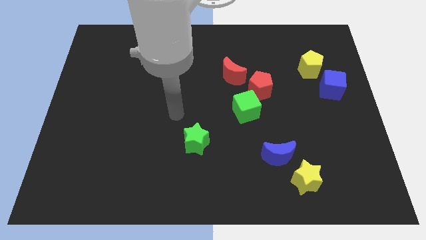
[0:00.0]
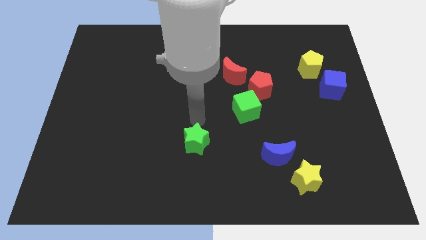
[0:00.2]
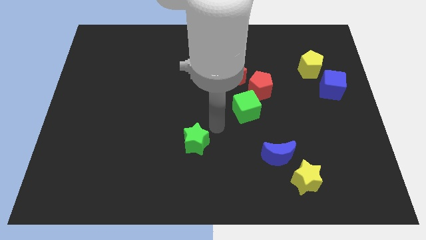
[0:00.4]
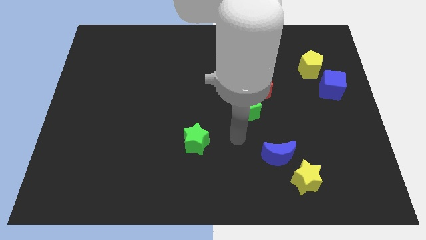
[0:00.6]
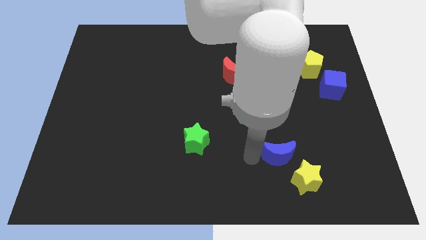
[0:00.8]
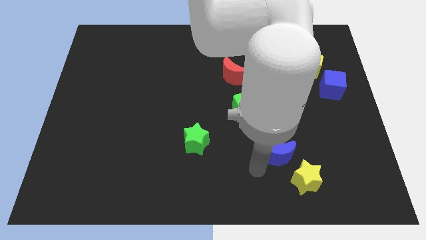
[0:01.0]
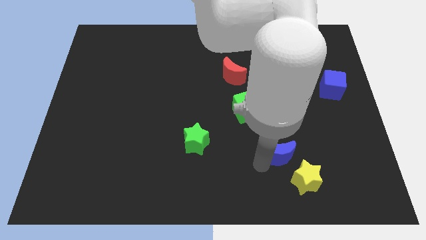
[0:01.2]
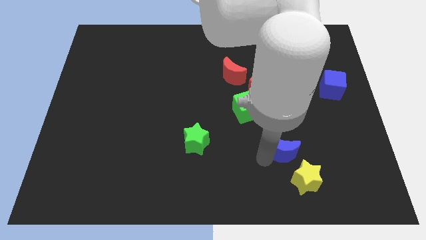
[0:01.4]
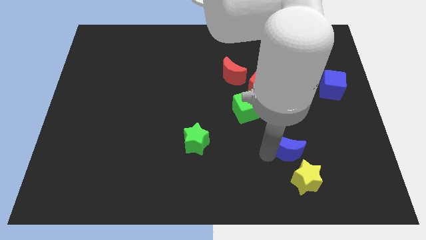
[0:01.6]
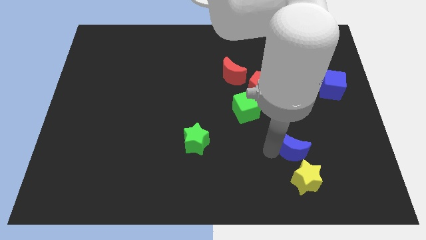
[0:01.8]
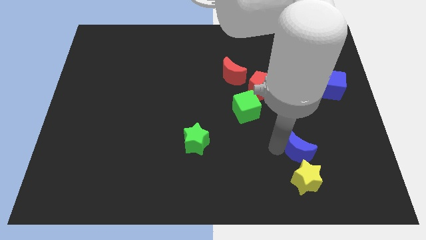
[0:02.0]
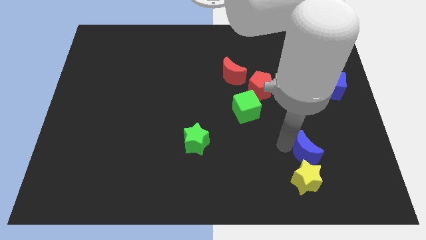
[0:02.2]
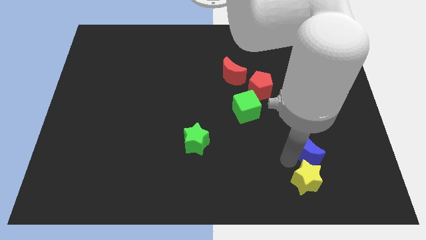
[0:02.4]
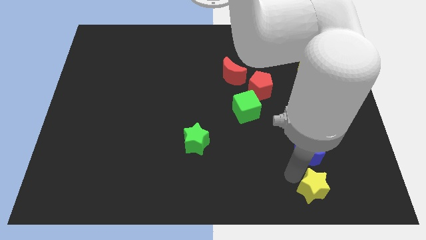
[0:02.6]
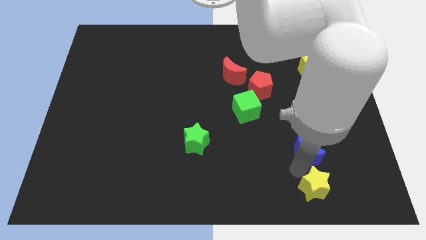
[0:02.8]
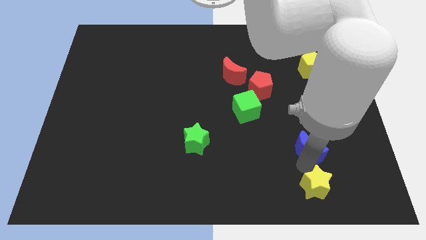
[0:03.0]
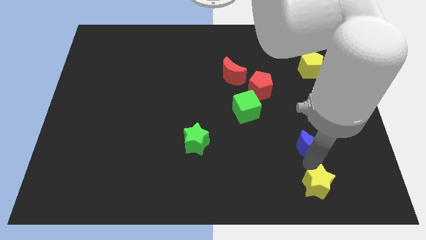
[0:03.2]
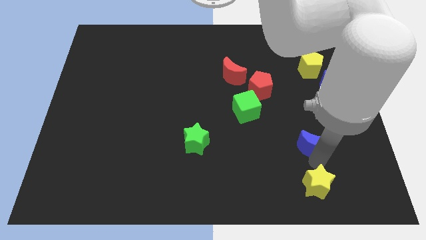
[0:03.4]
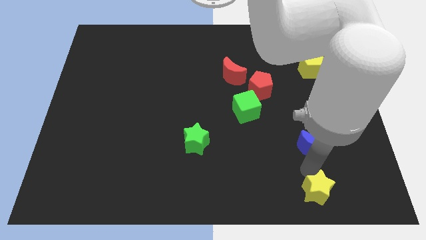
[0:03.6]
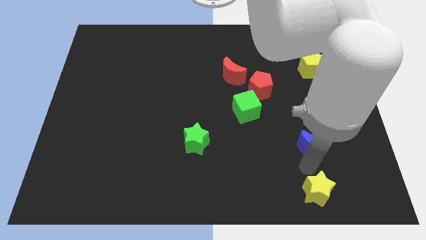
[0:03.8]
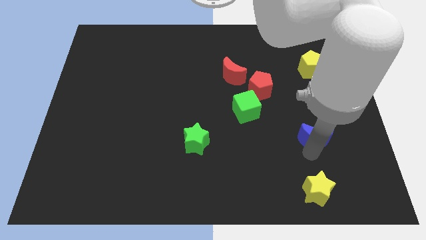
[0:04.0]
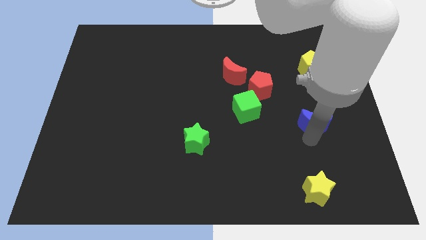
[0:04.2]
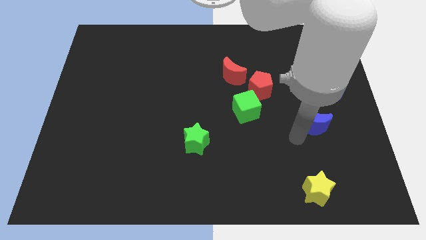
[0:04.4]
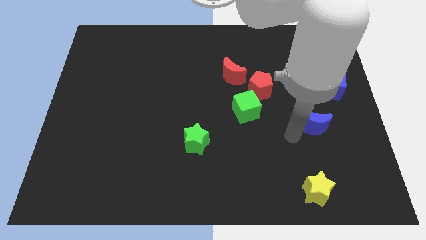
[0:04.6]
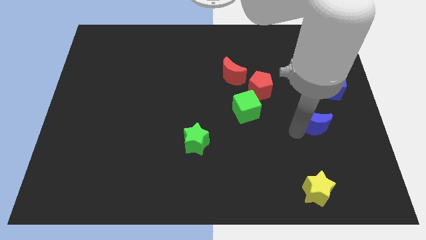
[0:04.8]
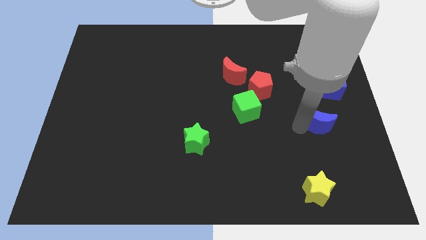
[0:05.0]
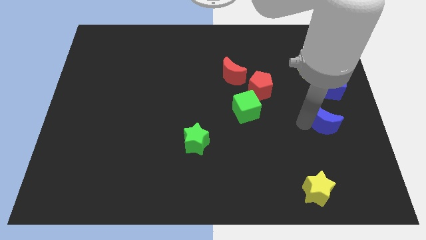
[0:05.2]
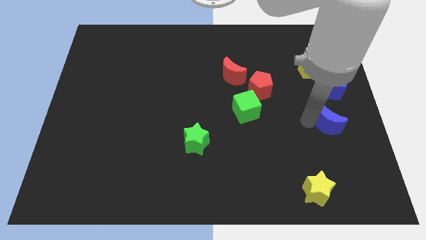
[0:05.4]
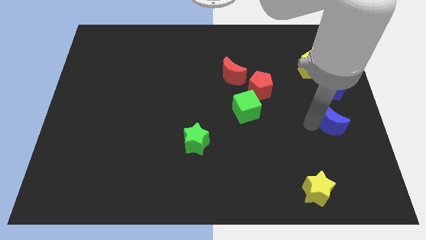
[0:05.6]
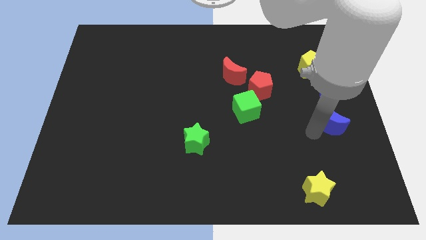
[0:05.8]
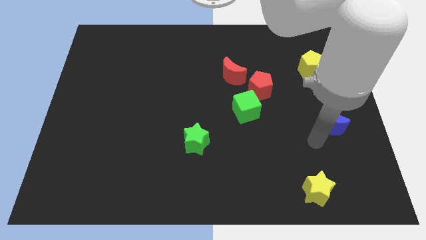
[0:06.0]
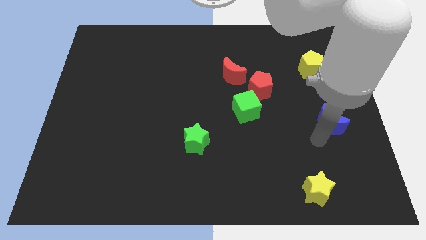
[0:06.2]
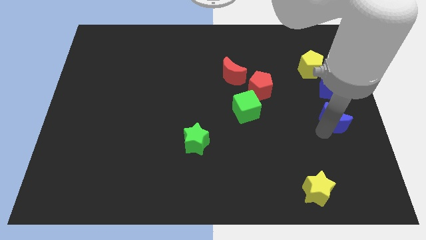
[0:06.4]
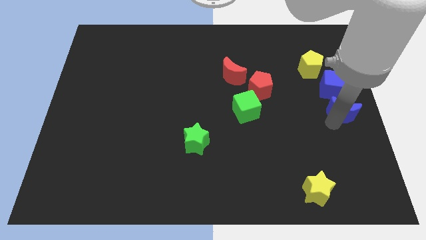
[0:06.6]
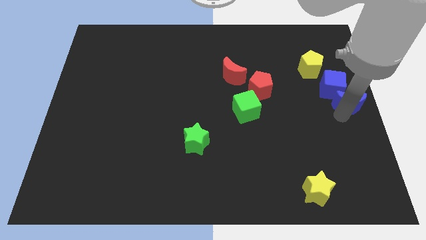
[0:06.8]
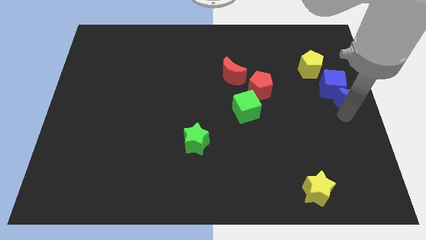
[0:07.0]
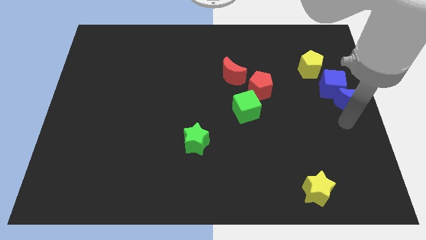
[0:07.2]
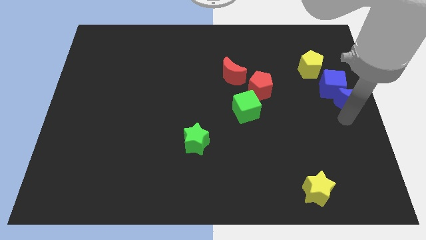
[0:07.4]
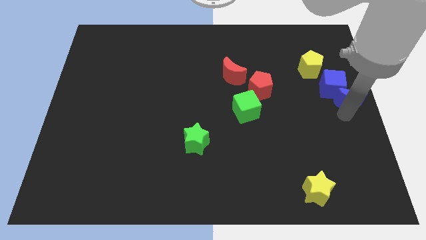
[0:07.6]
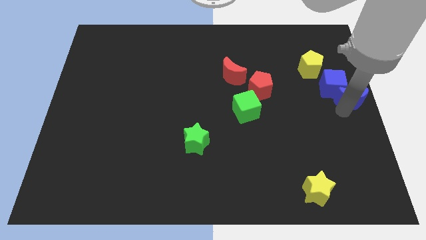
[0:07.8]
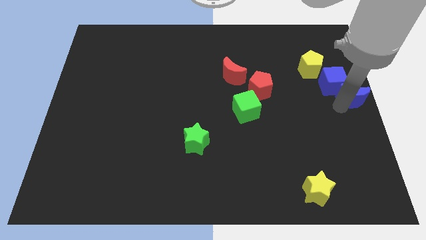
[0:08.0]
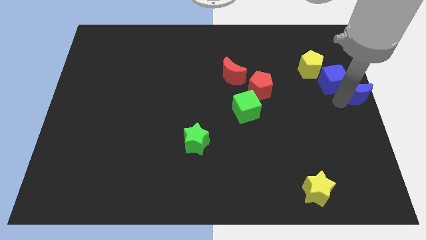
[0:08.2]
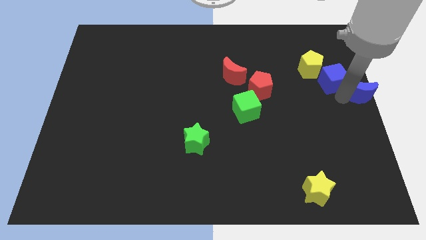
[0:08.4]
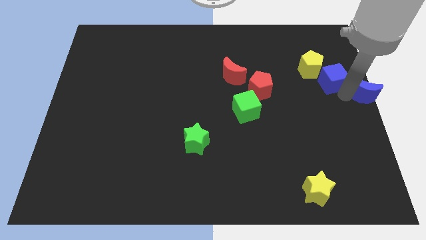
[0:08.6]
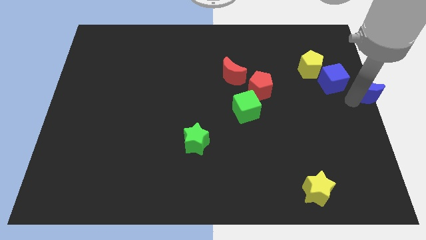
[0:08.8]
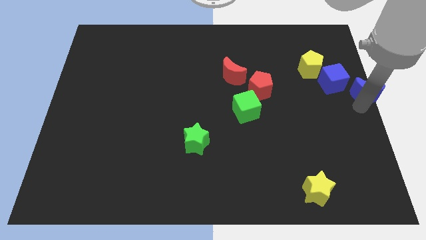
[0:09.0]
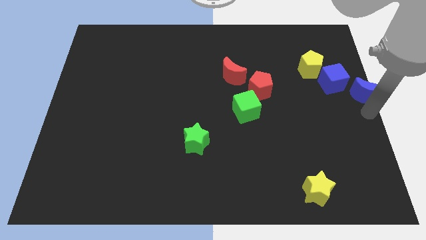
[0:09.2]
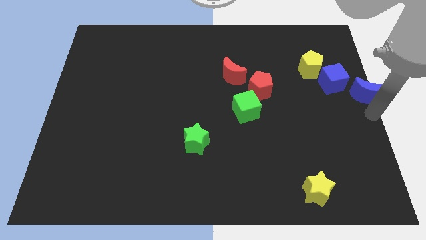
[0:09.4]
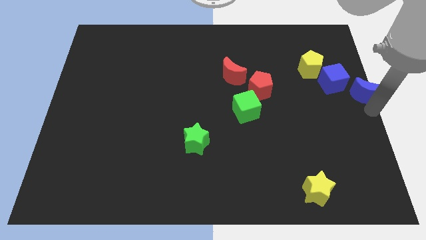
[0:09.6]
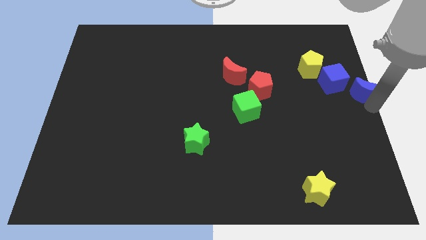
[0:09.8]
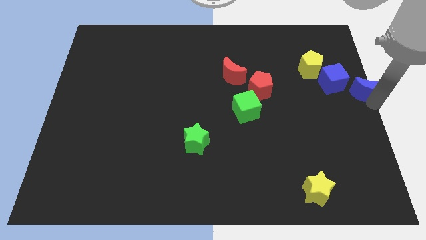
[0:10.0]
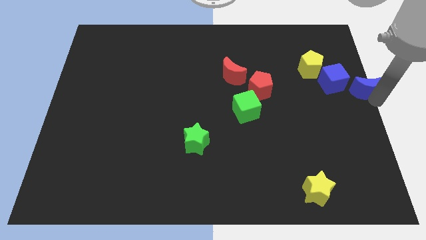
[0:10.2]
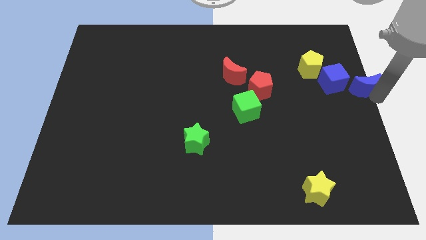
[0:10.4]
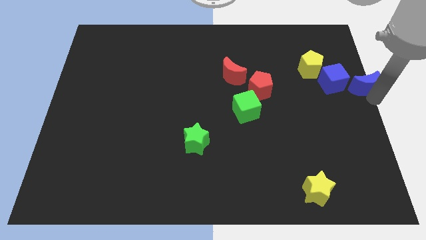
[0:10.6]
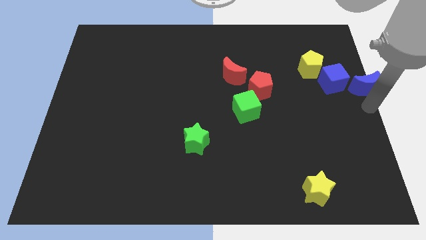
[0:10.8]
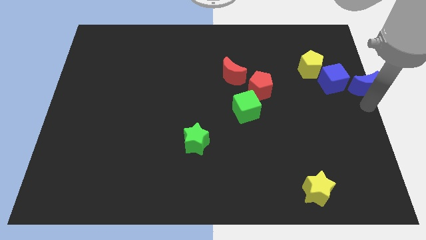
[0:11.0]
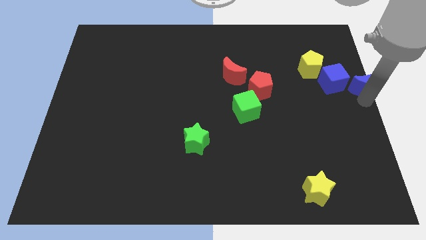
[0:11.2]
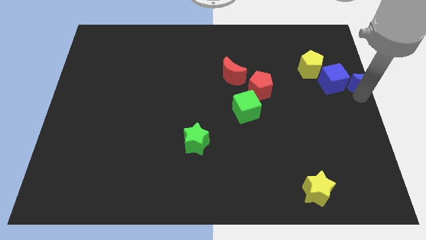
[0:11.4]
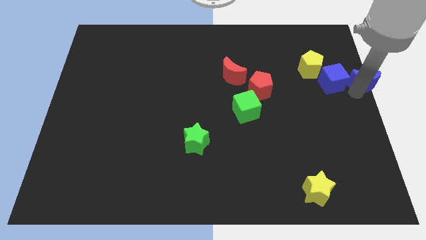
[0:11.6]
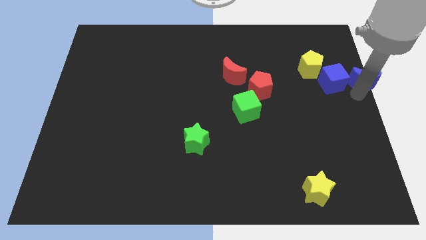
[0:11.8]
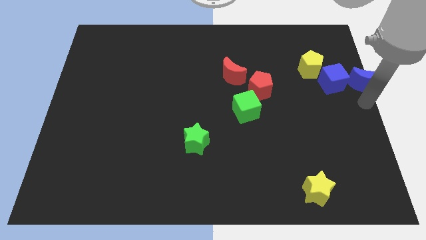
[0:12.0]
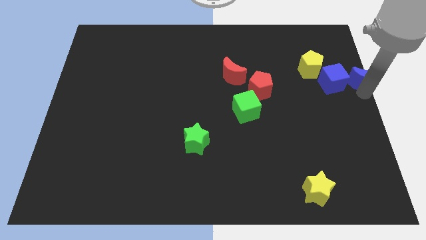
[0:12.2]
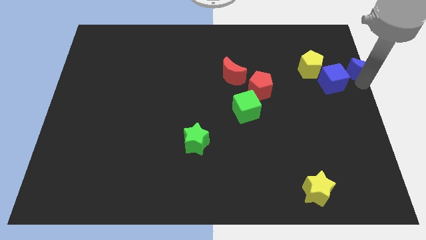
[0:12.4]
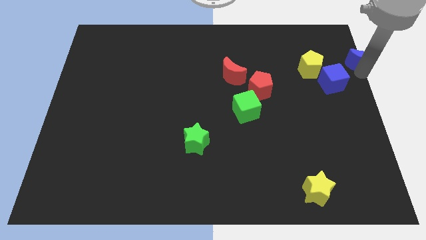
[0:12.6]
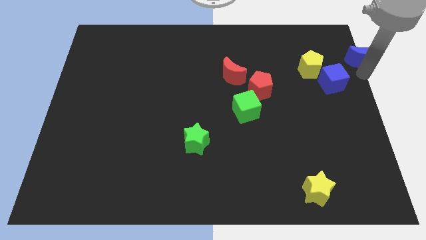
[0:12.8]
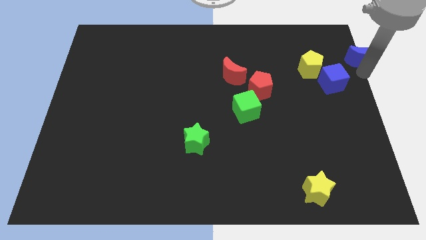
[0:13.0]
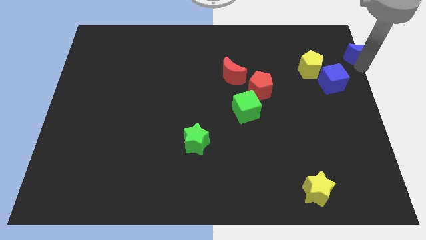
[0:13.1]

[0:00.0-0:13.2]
put the blue moon to the top right of the board

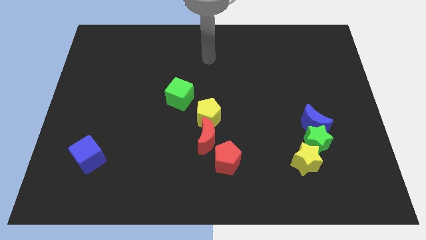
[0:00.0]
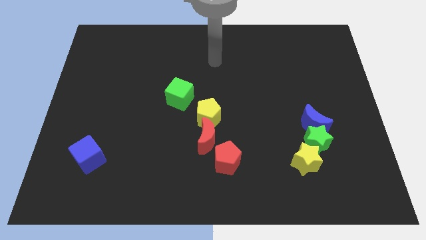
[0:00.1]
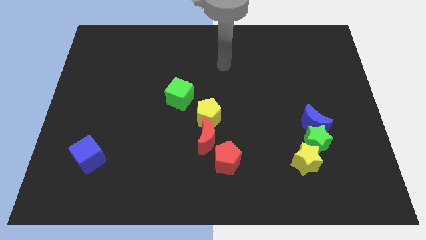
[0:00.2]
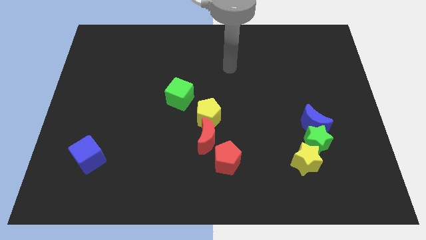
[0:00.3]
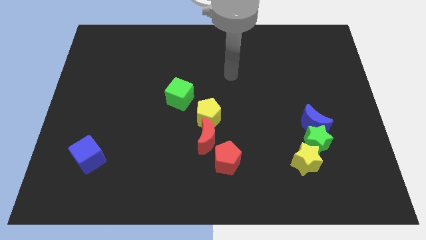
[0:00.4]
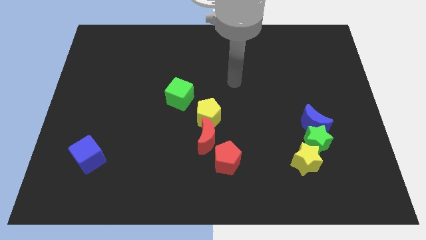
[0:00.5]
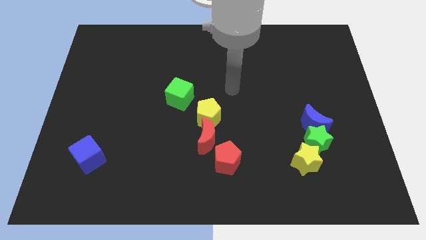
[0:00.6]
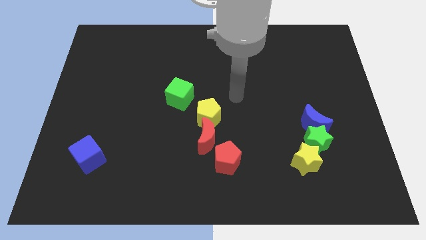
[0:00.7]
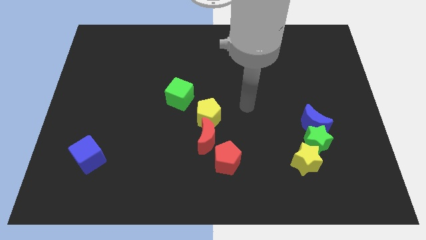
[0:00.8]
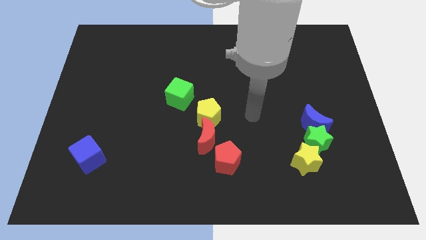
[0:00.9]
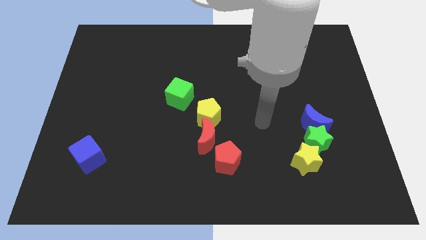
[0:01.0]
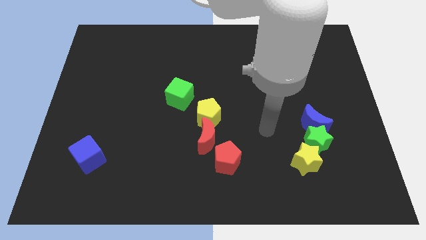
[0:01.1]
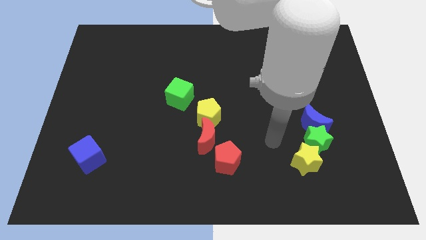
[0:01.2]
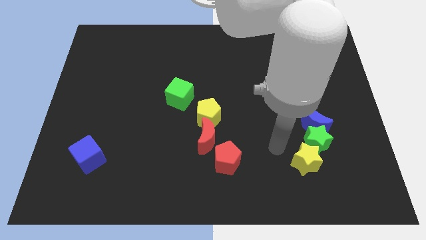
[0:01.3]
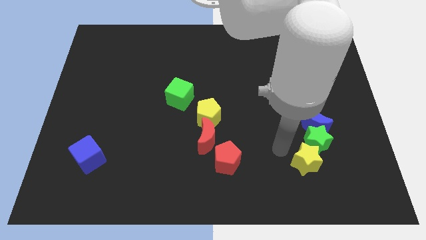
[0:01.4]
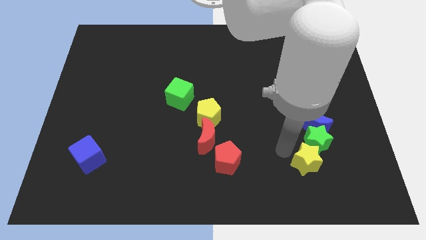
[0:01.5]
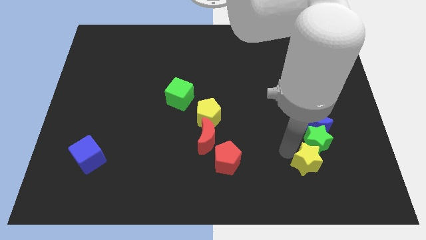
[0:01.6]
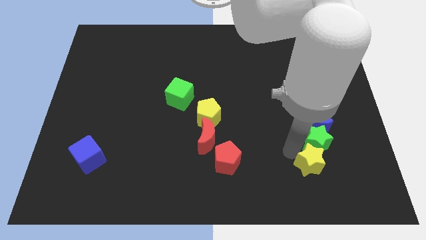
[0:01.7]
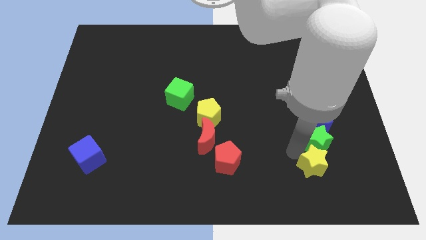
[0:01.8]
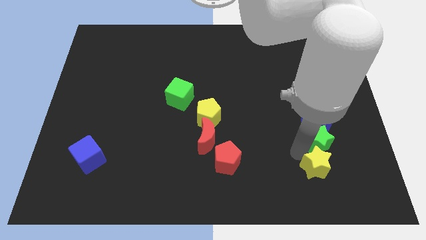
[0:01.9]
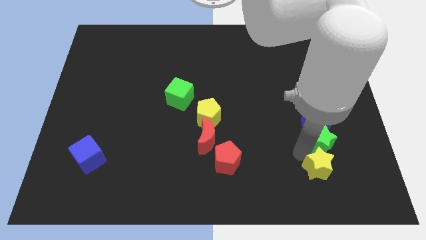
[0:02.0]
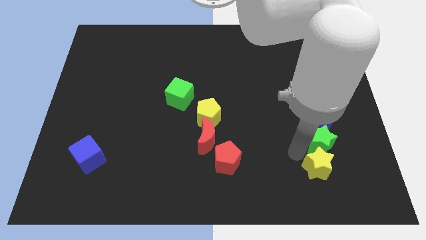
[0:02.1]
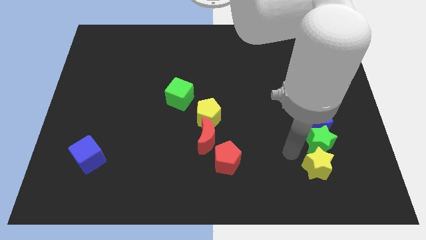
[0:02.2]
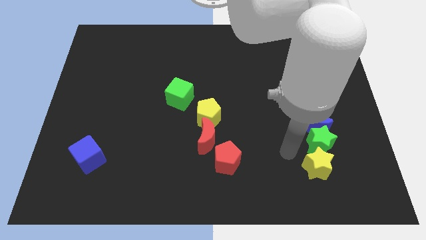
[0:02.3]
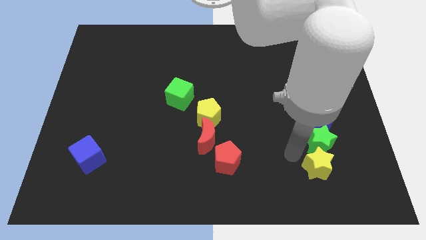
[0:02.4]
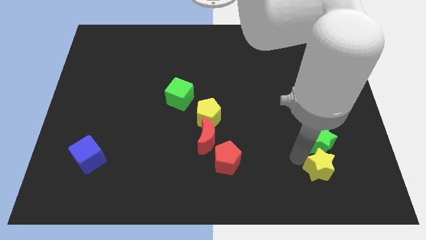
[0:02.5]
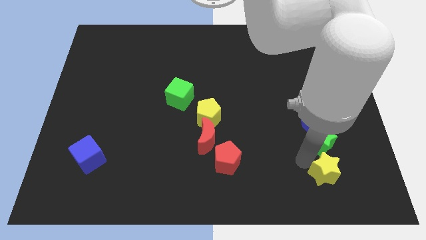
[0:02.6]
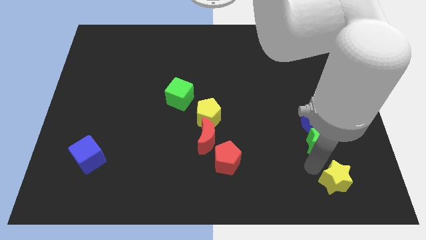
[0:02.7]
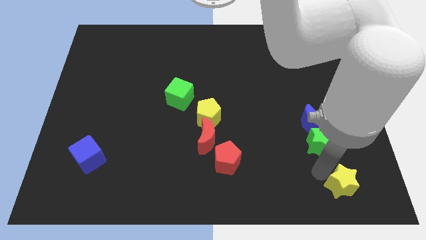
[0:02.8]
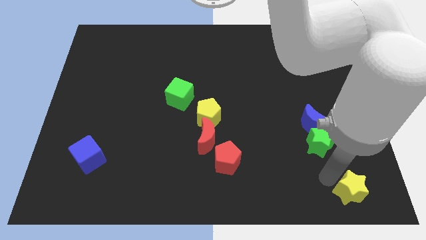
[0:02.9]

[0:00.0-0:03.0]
push the yellow star to the bottom right
